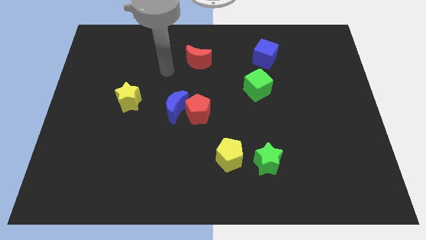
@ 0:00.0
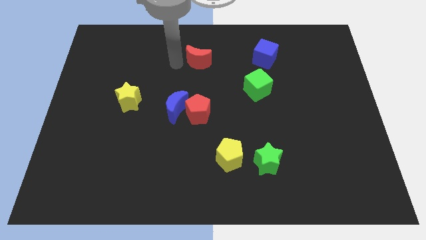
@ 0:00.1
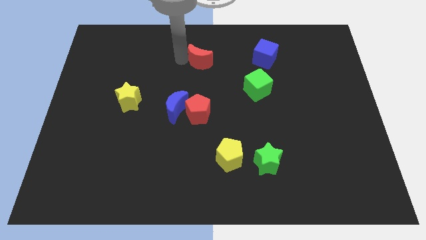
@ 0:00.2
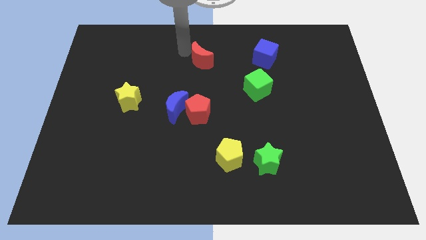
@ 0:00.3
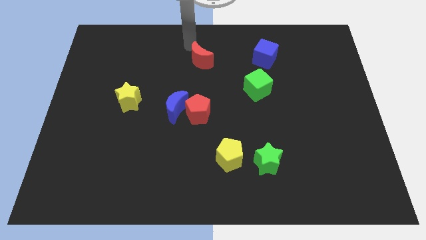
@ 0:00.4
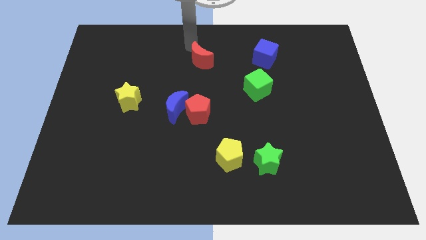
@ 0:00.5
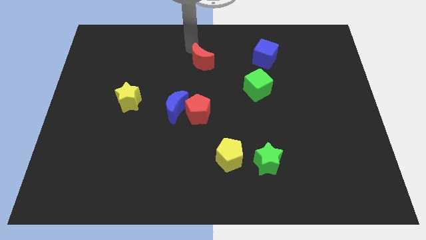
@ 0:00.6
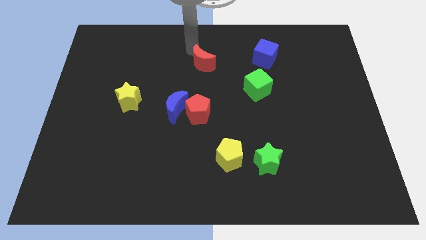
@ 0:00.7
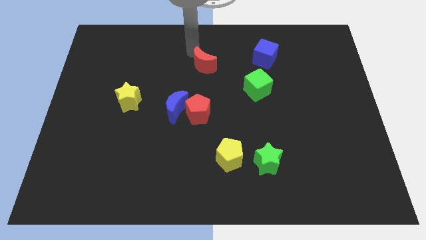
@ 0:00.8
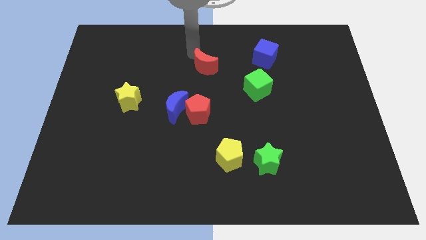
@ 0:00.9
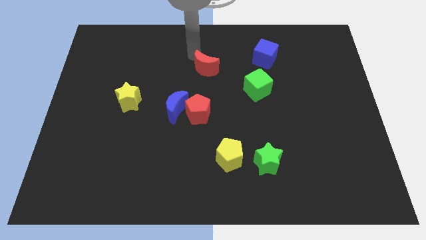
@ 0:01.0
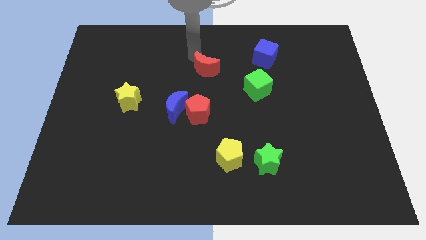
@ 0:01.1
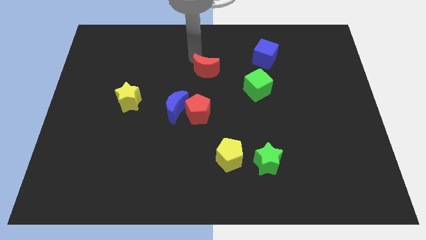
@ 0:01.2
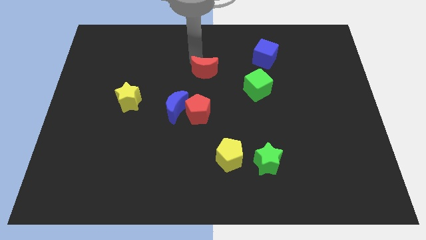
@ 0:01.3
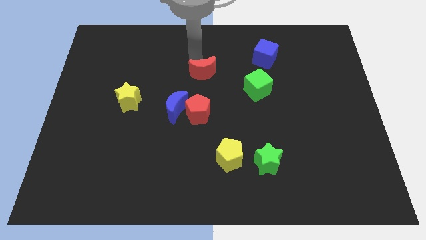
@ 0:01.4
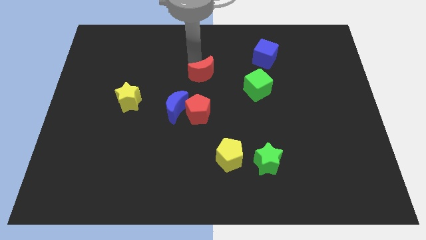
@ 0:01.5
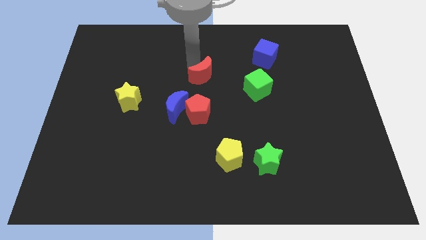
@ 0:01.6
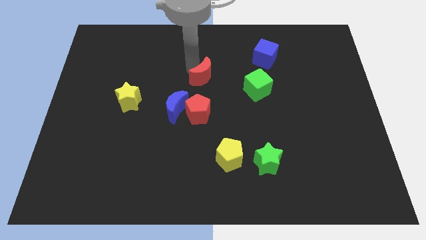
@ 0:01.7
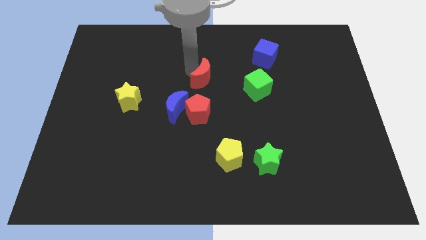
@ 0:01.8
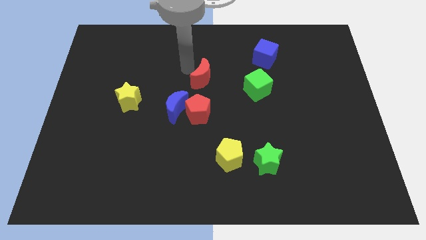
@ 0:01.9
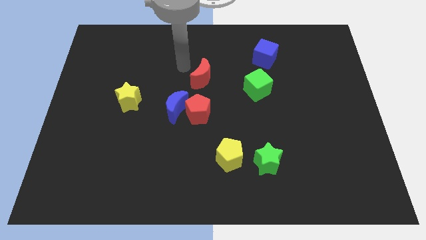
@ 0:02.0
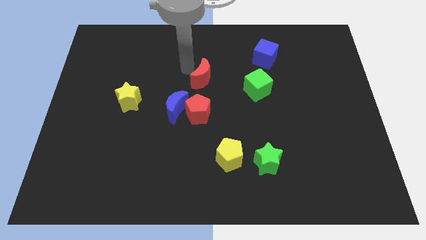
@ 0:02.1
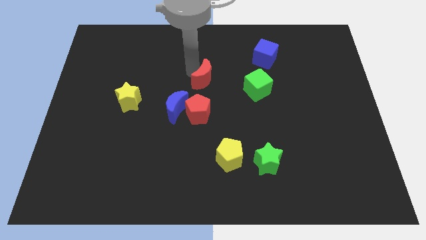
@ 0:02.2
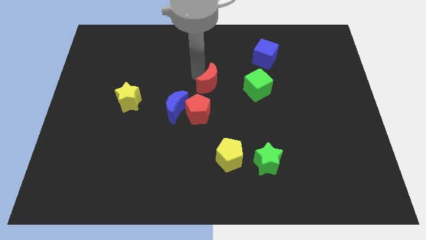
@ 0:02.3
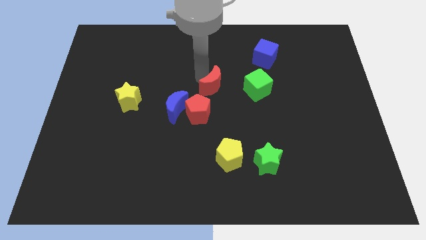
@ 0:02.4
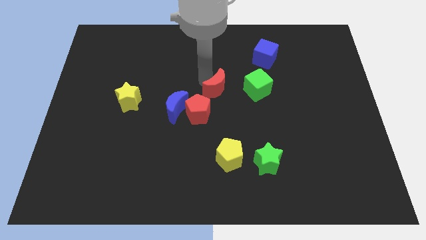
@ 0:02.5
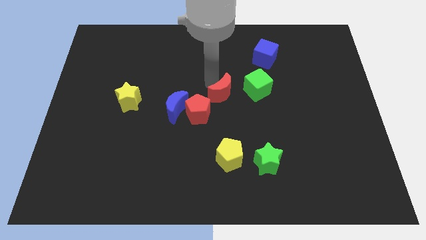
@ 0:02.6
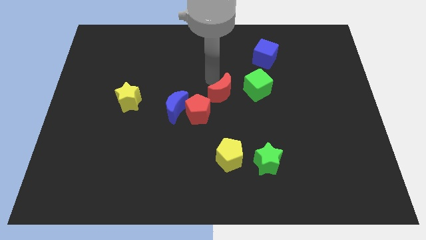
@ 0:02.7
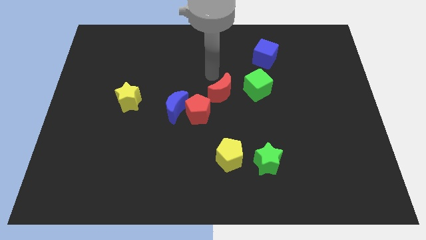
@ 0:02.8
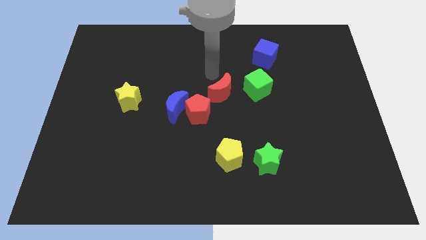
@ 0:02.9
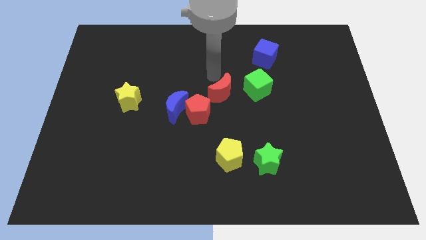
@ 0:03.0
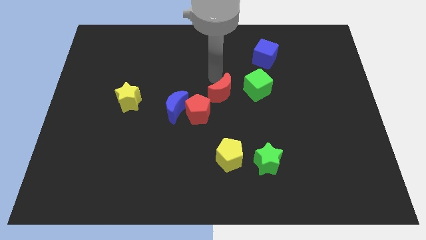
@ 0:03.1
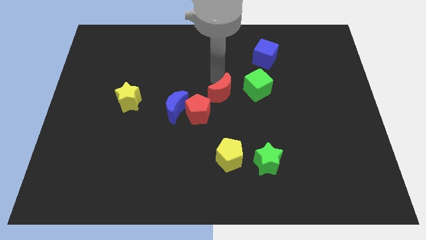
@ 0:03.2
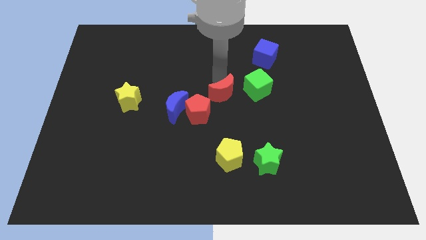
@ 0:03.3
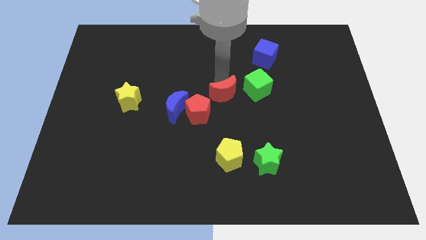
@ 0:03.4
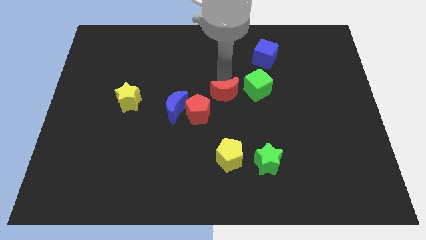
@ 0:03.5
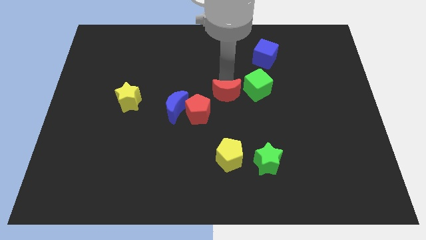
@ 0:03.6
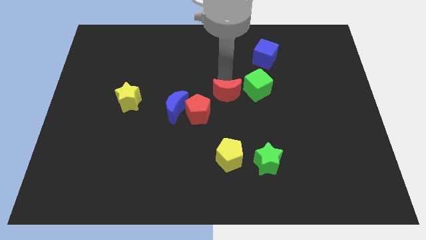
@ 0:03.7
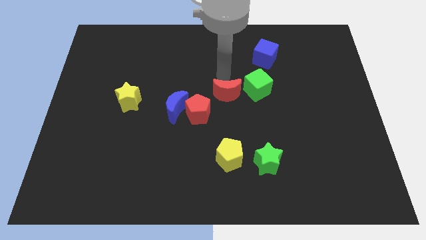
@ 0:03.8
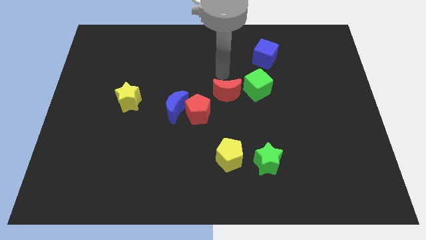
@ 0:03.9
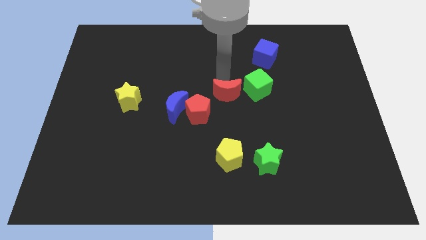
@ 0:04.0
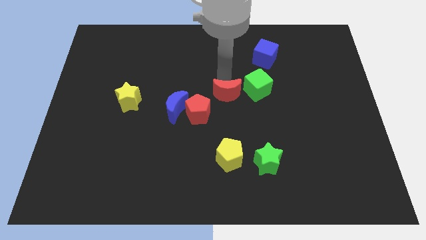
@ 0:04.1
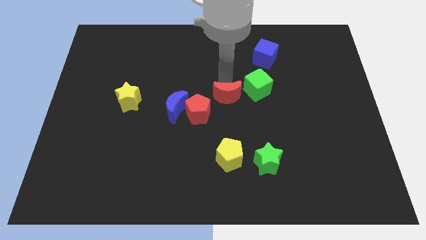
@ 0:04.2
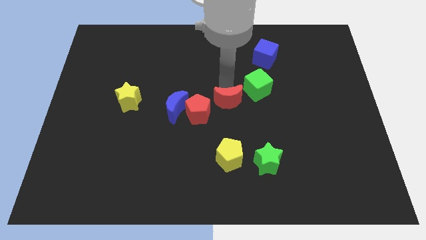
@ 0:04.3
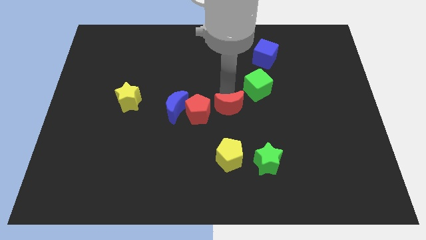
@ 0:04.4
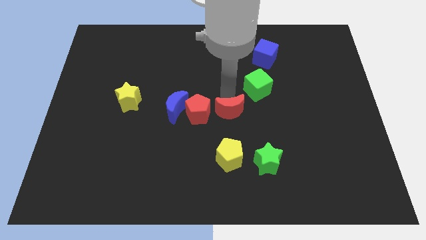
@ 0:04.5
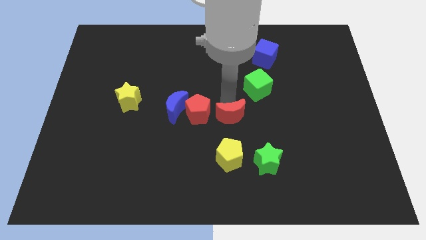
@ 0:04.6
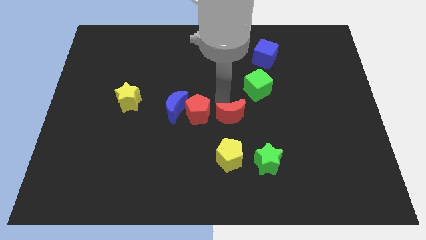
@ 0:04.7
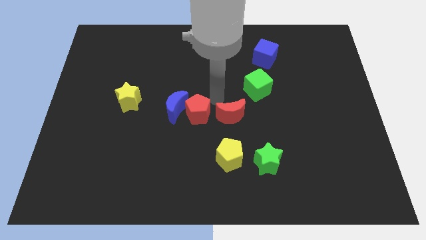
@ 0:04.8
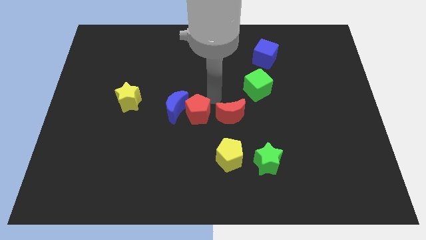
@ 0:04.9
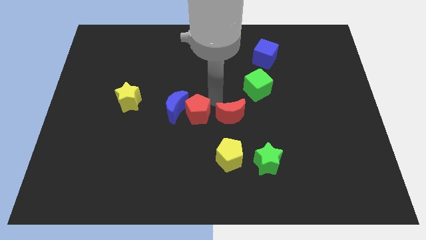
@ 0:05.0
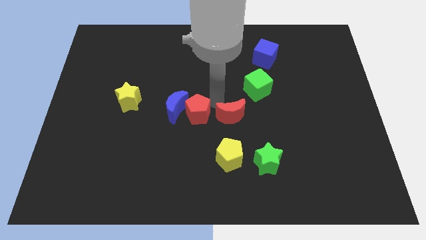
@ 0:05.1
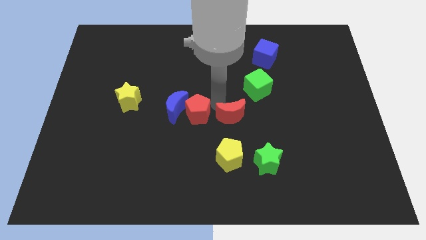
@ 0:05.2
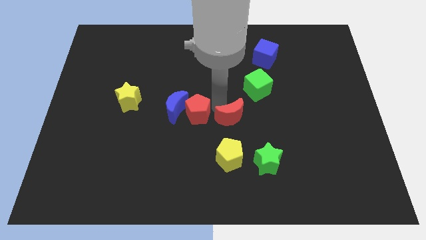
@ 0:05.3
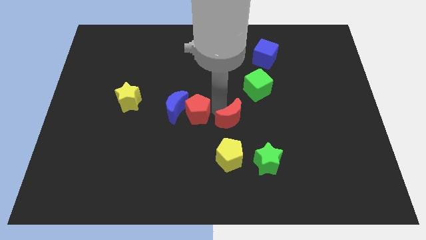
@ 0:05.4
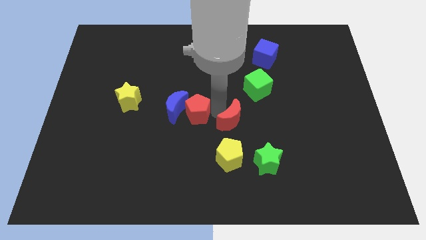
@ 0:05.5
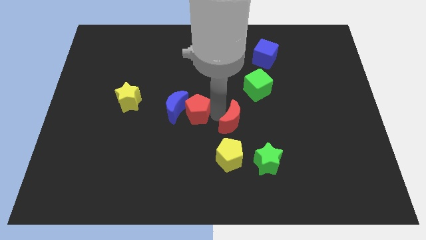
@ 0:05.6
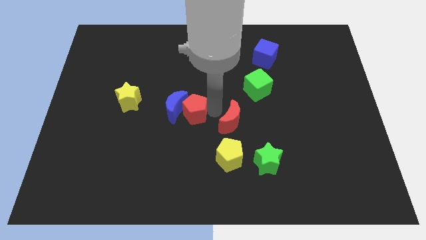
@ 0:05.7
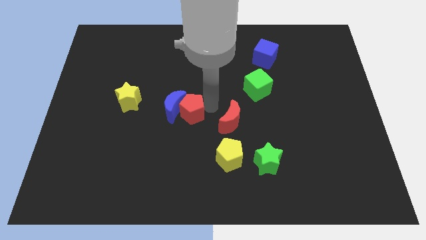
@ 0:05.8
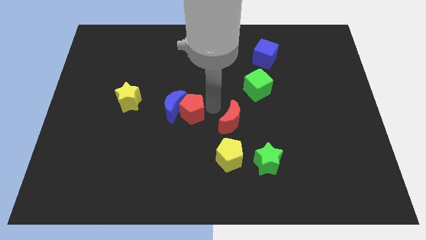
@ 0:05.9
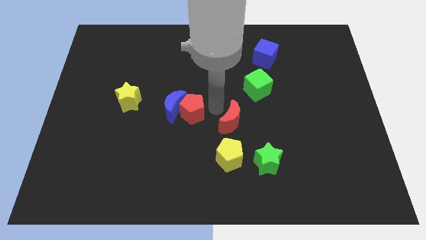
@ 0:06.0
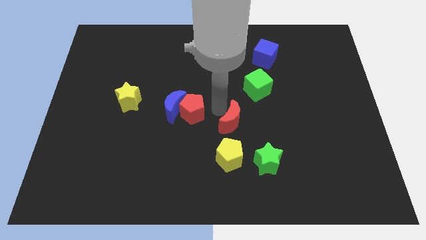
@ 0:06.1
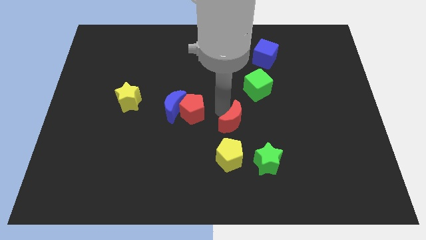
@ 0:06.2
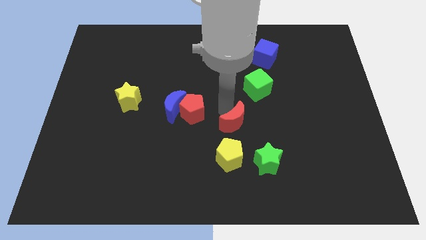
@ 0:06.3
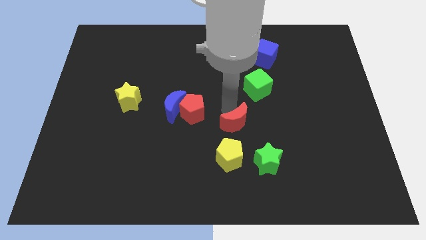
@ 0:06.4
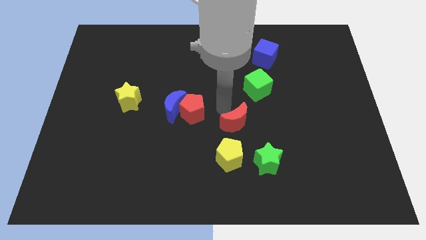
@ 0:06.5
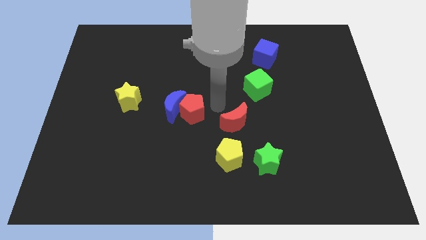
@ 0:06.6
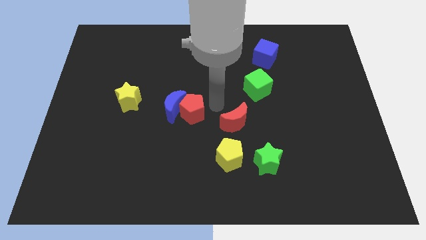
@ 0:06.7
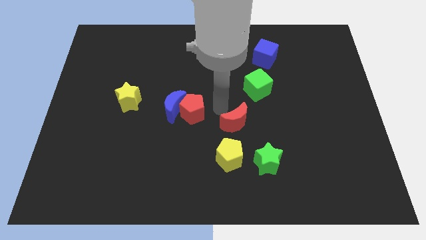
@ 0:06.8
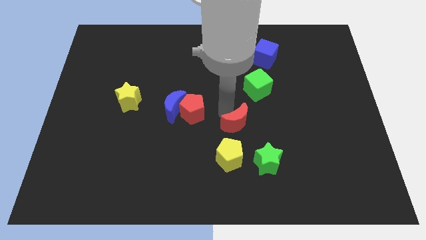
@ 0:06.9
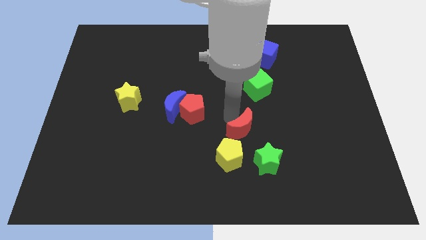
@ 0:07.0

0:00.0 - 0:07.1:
push the red moon to the top right of the yellow pentagon

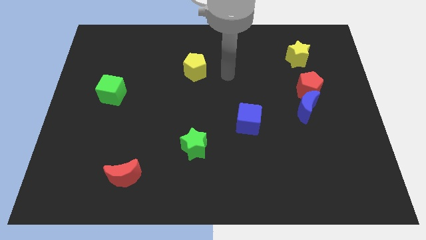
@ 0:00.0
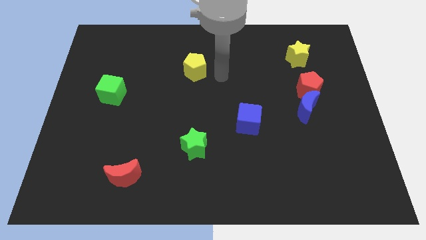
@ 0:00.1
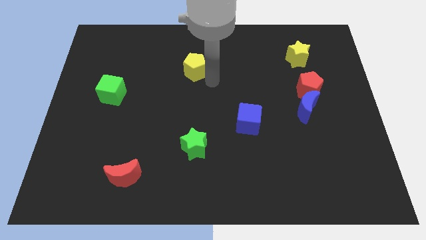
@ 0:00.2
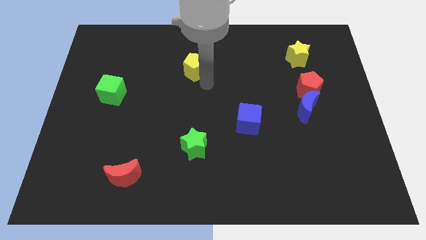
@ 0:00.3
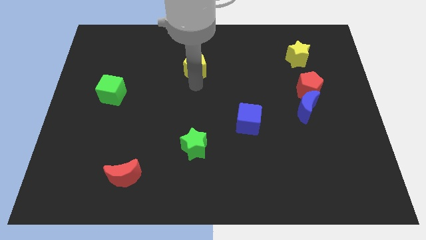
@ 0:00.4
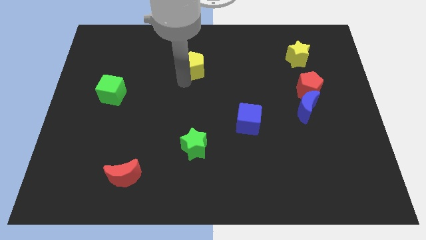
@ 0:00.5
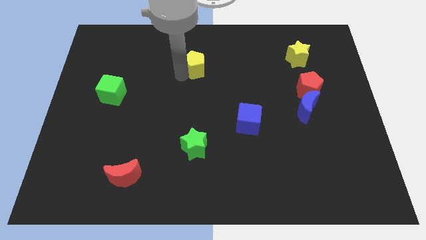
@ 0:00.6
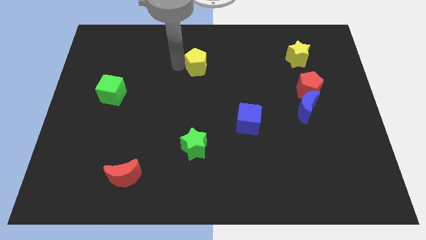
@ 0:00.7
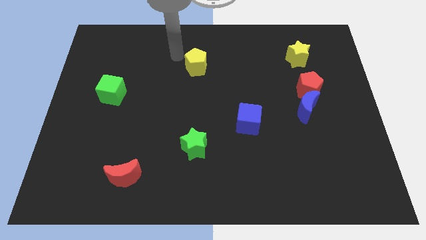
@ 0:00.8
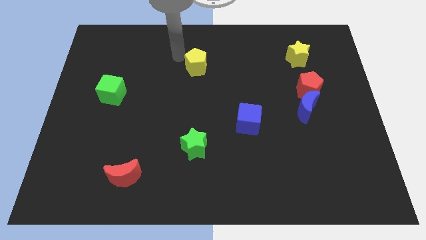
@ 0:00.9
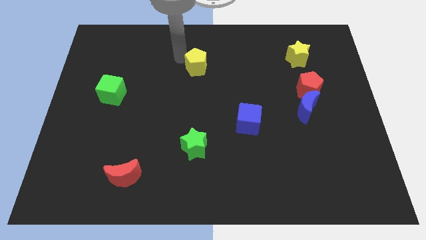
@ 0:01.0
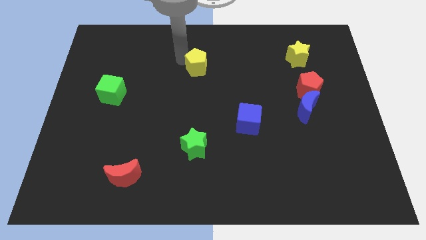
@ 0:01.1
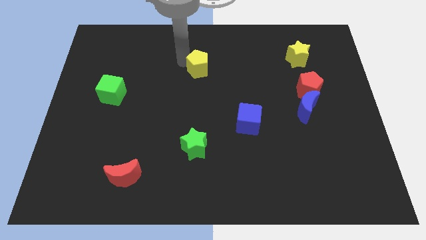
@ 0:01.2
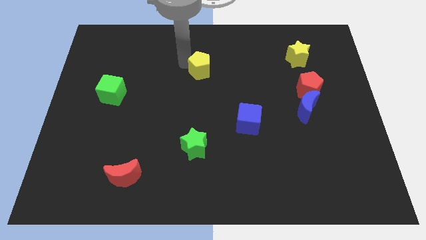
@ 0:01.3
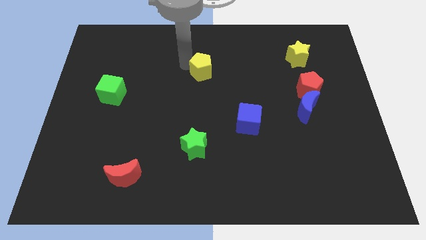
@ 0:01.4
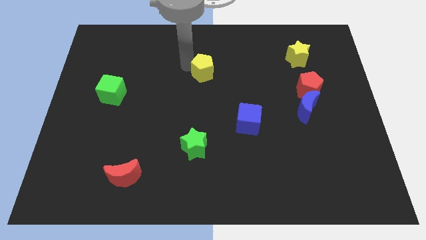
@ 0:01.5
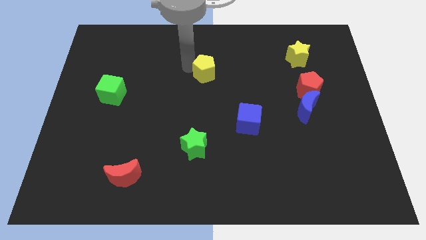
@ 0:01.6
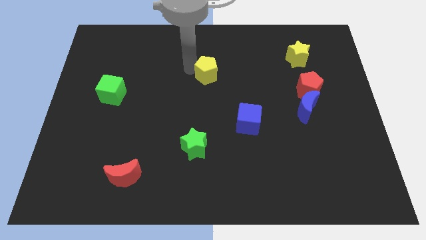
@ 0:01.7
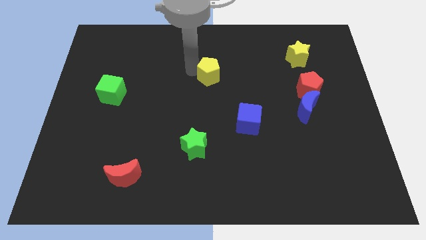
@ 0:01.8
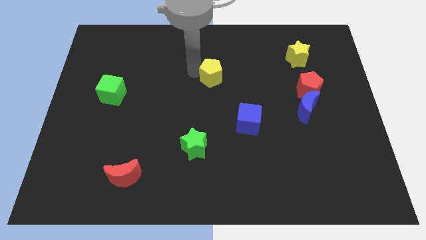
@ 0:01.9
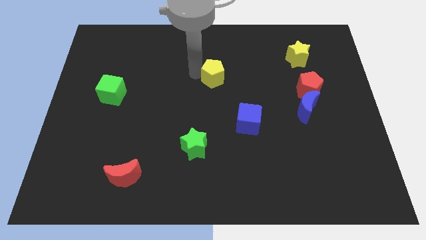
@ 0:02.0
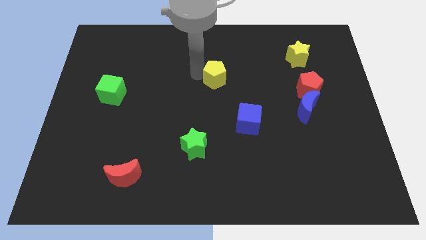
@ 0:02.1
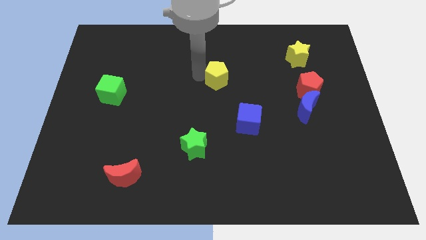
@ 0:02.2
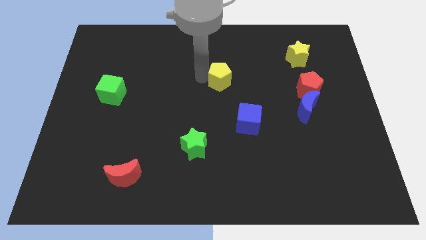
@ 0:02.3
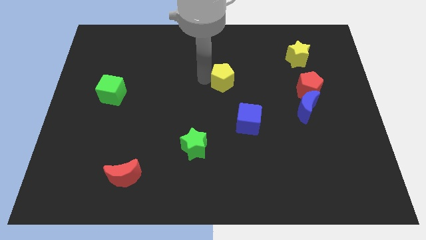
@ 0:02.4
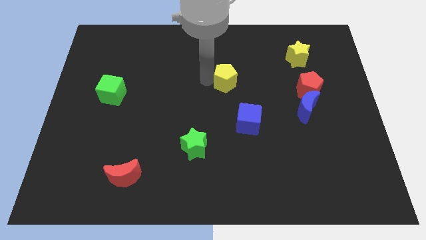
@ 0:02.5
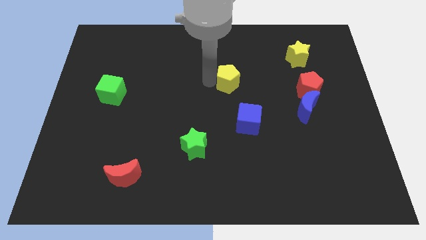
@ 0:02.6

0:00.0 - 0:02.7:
slide the yellow pentagon to the top side of the blue cube
